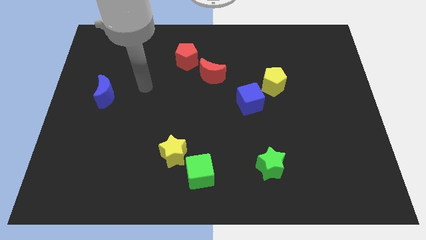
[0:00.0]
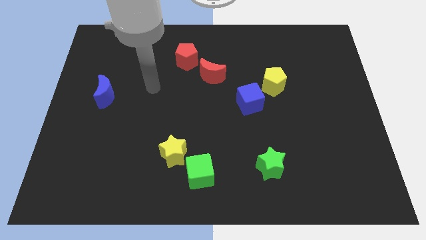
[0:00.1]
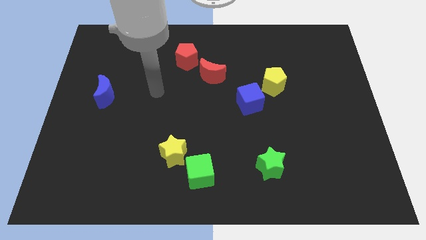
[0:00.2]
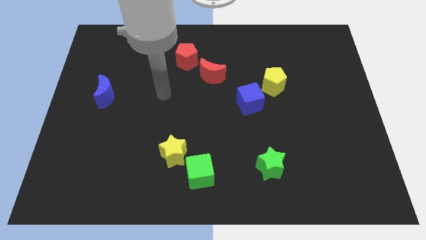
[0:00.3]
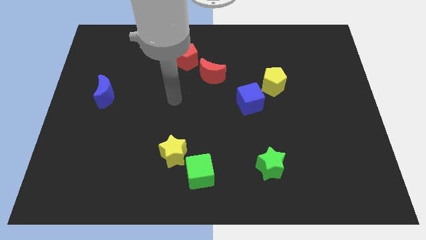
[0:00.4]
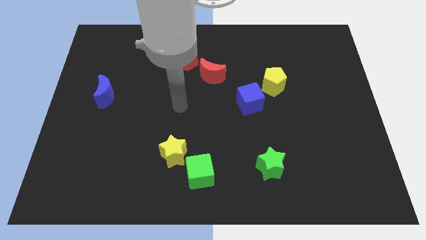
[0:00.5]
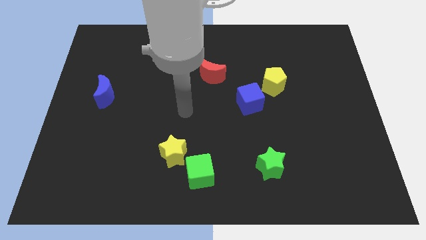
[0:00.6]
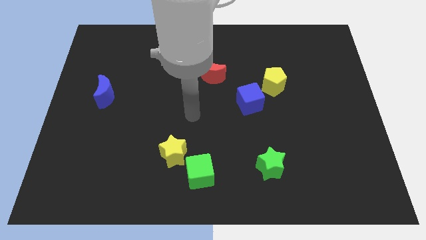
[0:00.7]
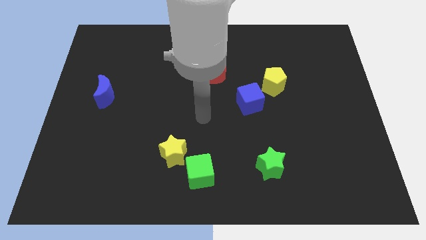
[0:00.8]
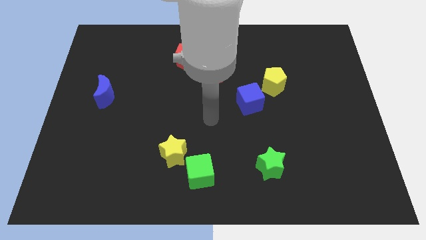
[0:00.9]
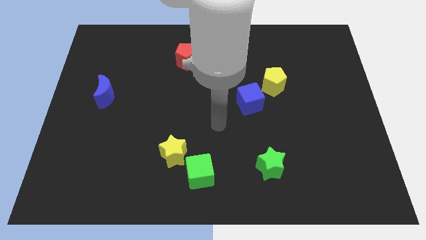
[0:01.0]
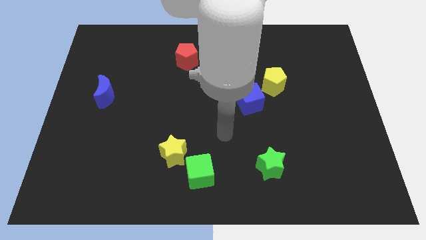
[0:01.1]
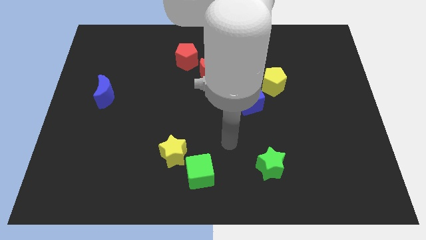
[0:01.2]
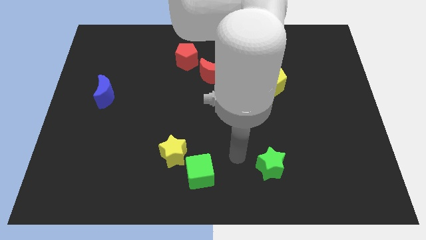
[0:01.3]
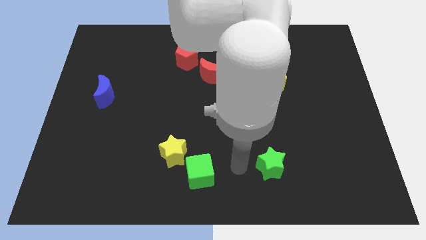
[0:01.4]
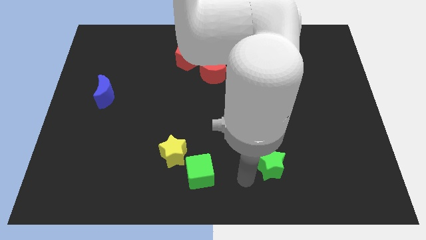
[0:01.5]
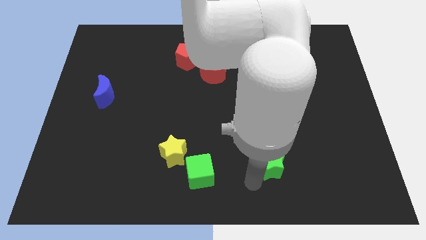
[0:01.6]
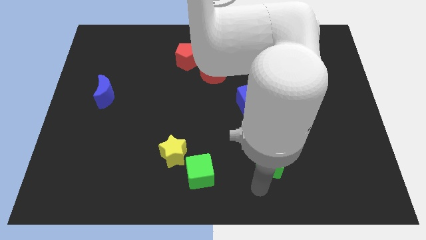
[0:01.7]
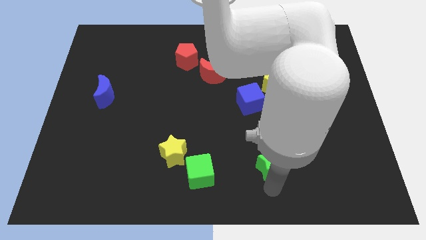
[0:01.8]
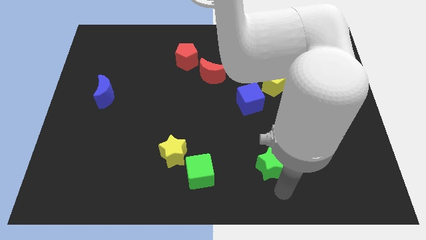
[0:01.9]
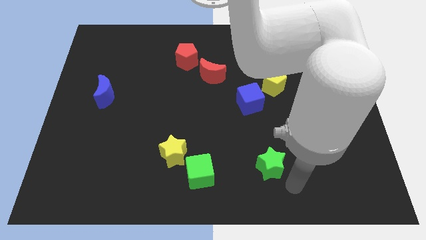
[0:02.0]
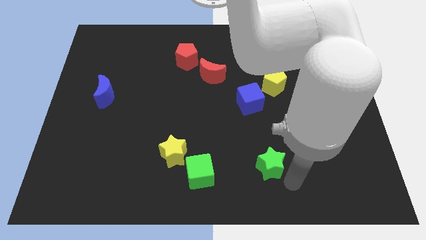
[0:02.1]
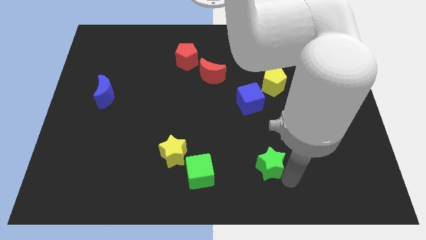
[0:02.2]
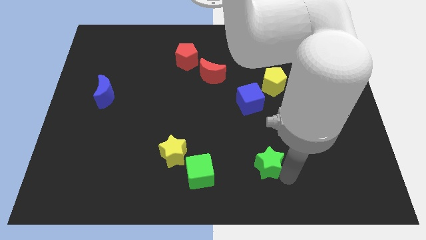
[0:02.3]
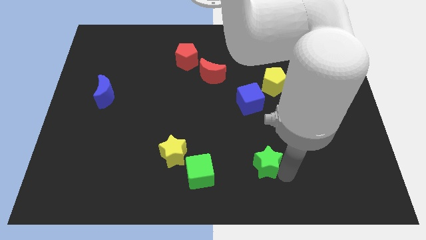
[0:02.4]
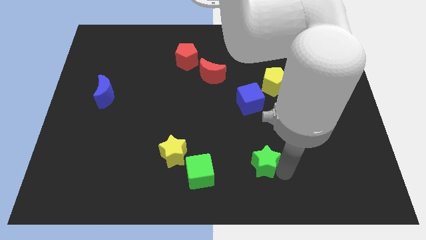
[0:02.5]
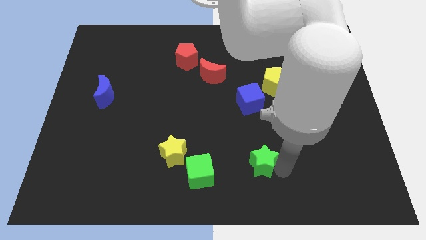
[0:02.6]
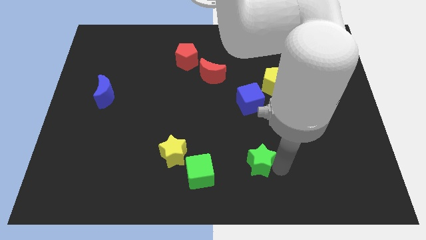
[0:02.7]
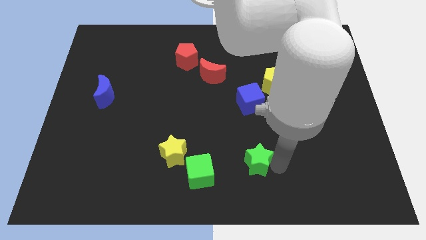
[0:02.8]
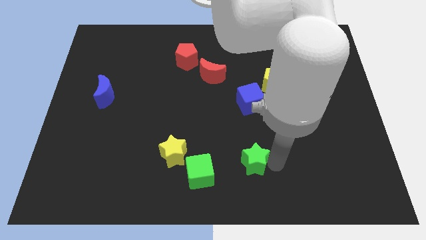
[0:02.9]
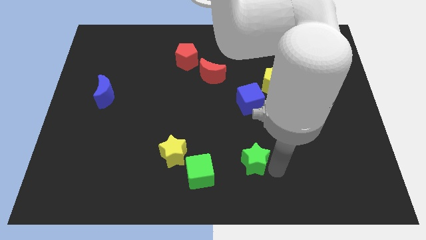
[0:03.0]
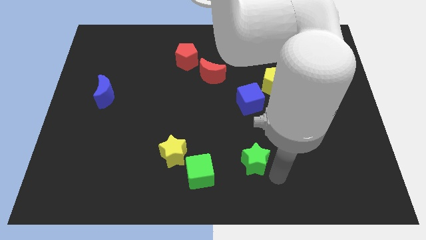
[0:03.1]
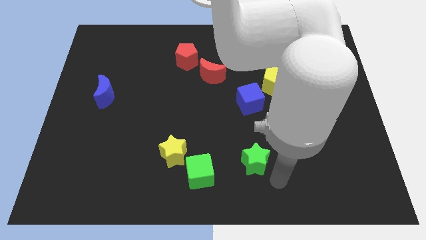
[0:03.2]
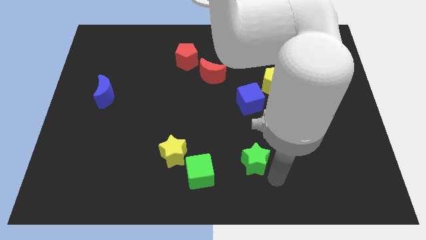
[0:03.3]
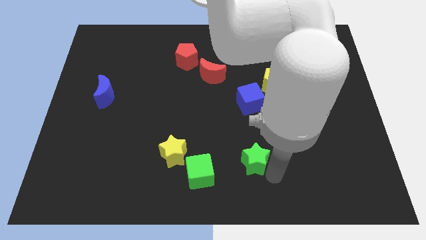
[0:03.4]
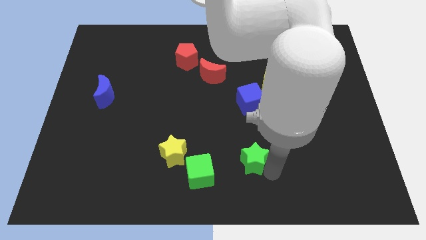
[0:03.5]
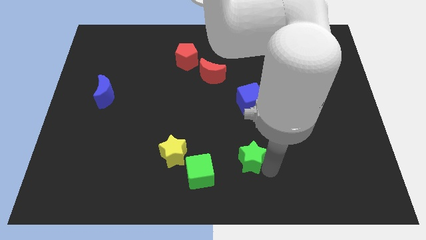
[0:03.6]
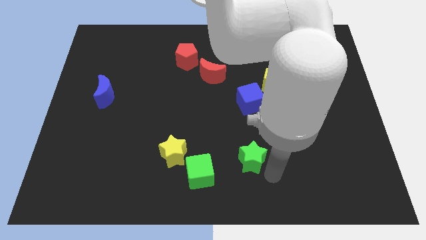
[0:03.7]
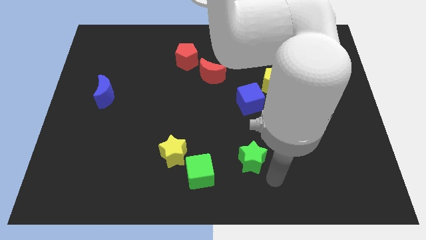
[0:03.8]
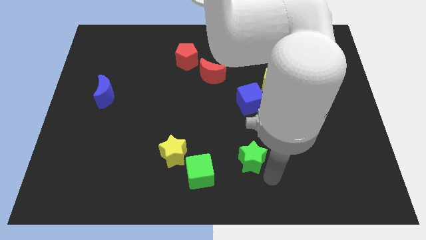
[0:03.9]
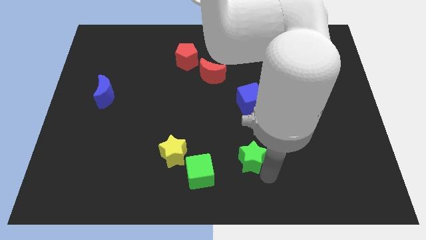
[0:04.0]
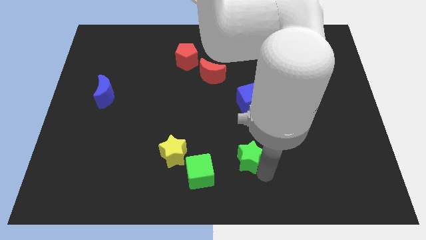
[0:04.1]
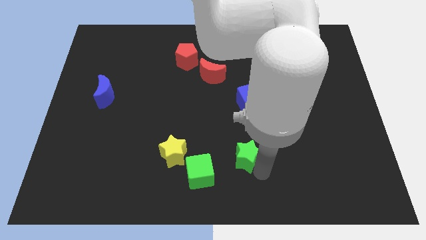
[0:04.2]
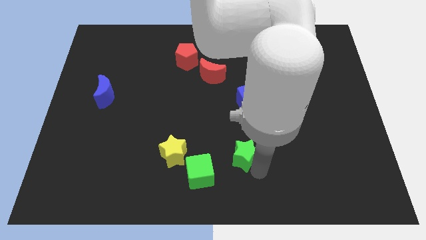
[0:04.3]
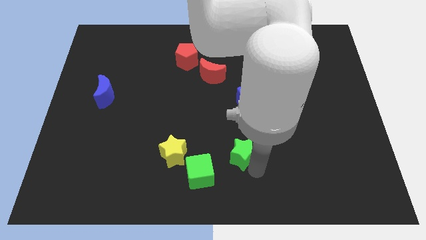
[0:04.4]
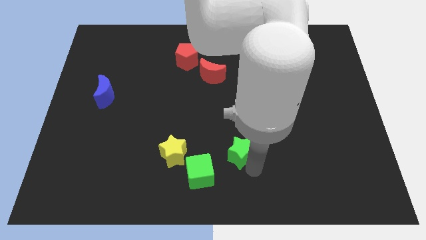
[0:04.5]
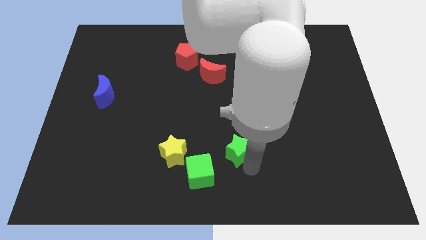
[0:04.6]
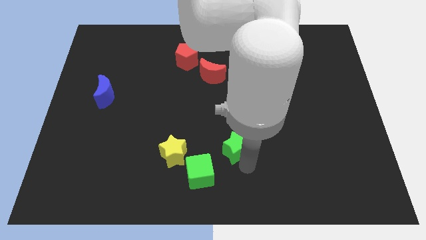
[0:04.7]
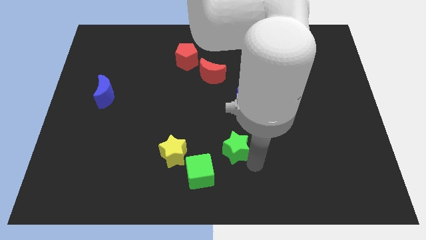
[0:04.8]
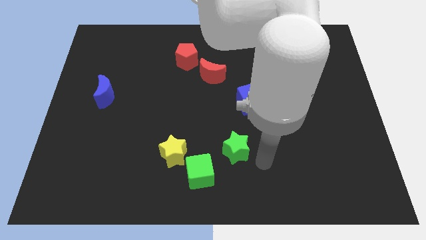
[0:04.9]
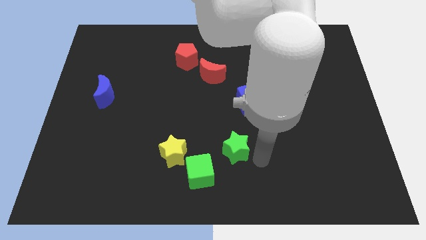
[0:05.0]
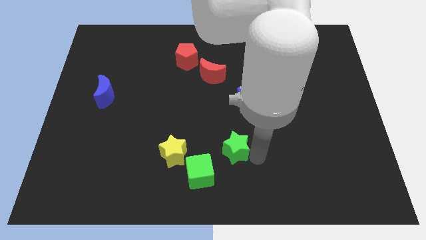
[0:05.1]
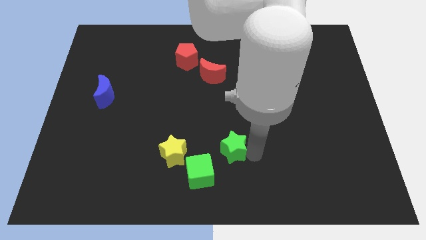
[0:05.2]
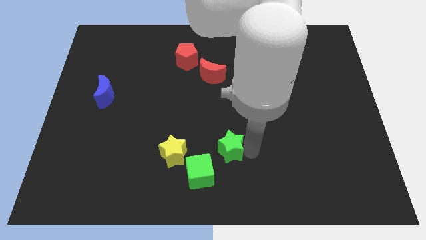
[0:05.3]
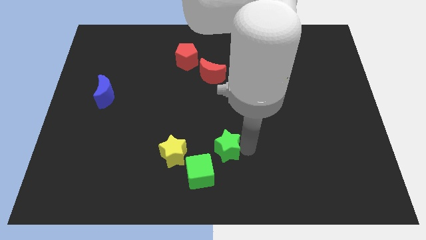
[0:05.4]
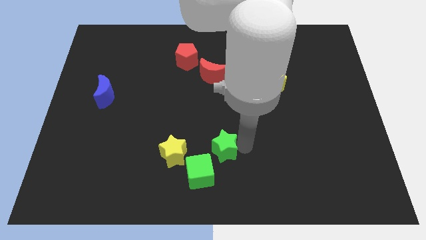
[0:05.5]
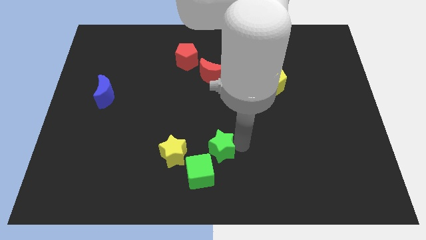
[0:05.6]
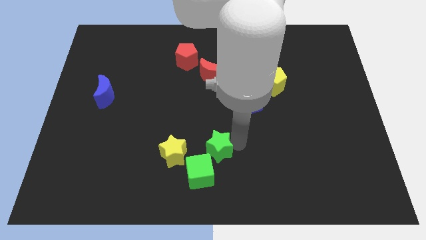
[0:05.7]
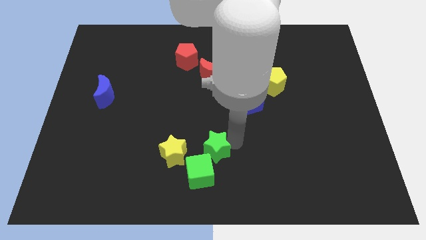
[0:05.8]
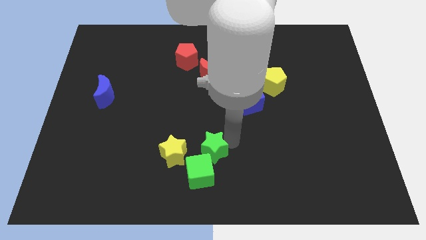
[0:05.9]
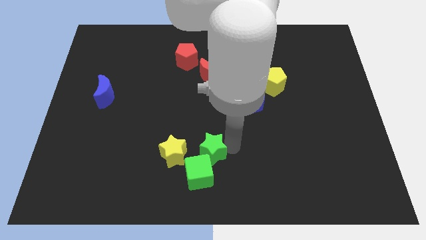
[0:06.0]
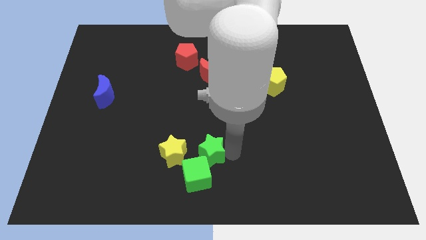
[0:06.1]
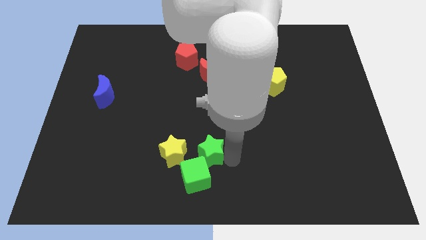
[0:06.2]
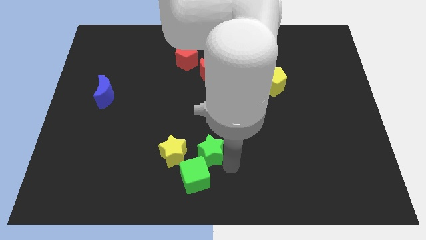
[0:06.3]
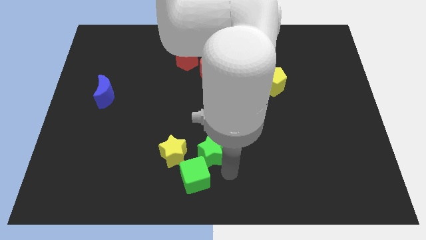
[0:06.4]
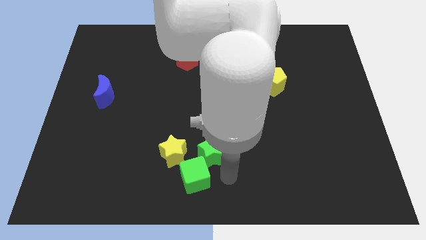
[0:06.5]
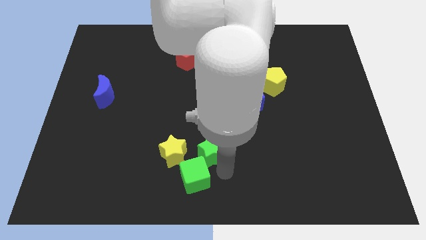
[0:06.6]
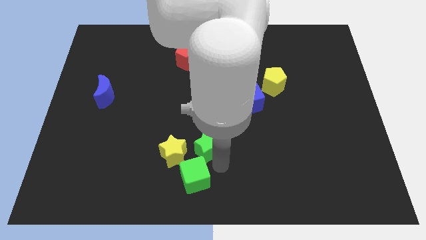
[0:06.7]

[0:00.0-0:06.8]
put the green star diagonally up and to the right of the yellow star

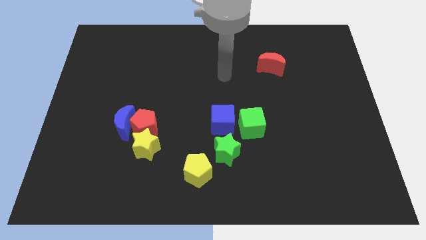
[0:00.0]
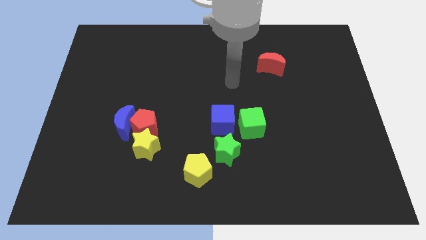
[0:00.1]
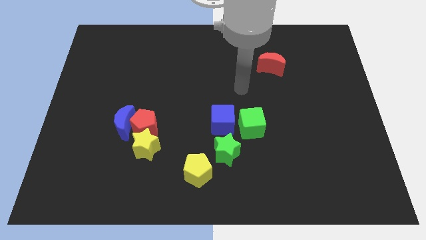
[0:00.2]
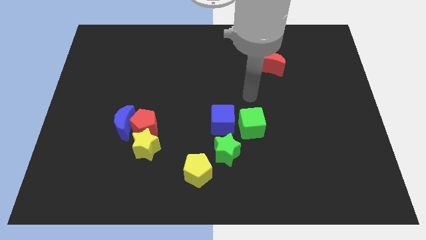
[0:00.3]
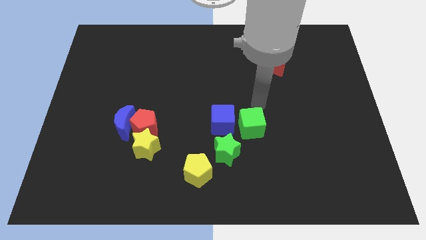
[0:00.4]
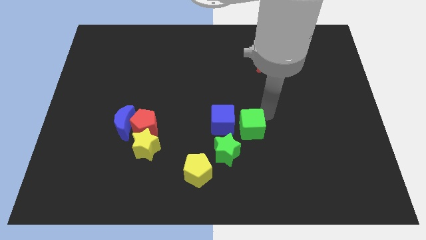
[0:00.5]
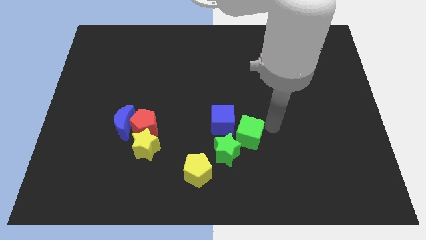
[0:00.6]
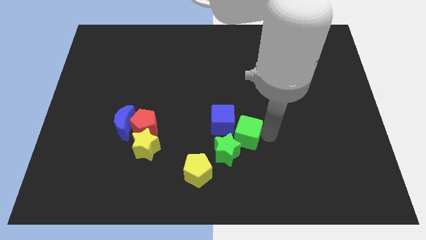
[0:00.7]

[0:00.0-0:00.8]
put the green cube to the top side of the green star
